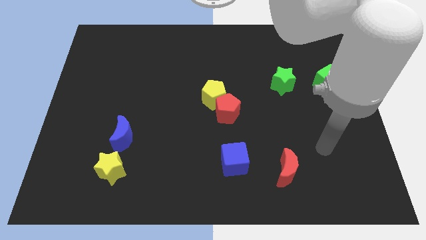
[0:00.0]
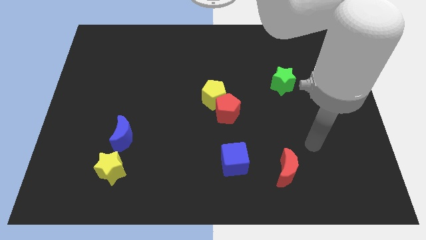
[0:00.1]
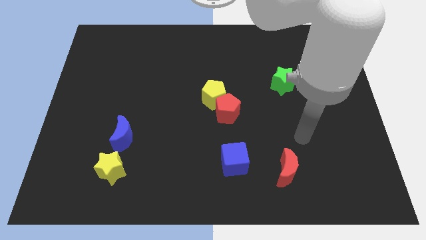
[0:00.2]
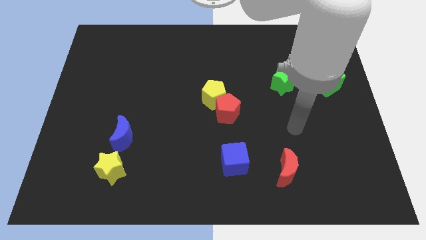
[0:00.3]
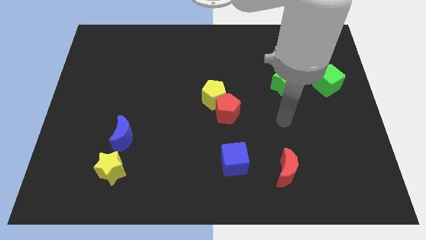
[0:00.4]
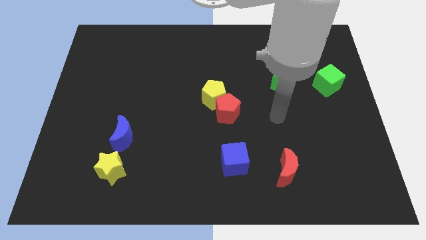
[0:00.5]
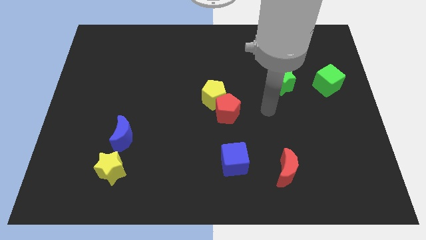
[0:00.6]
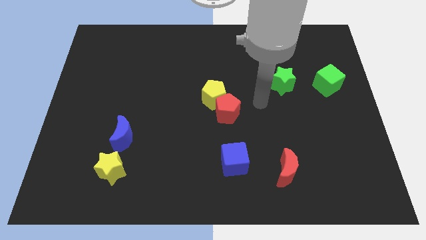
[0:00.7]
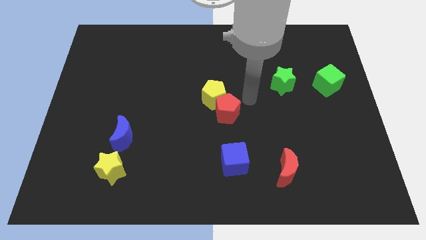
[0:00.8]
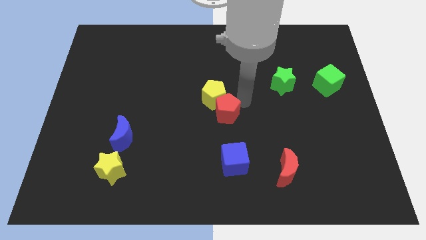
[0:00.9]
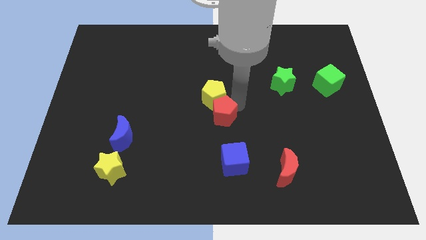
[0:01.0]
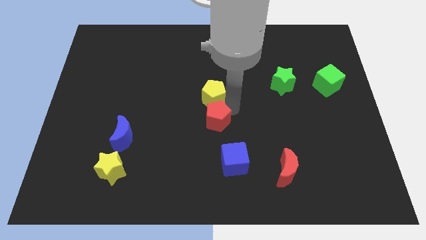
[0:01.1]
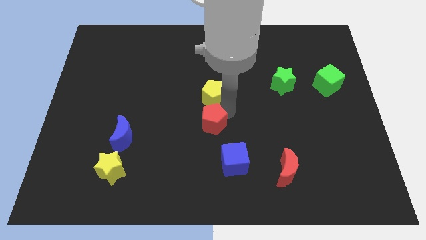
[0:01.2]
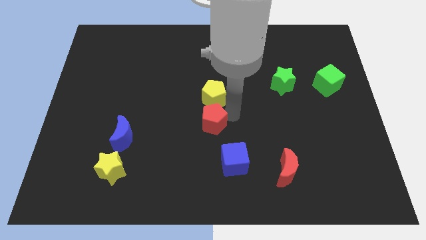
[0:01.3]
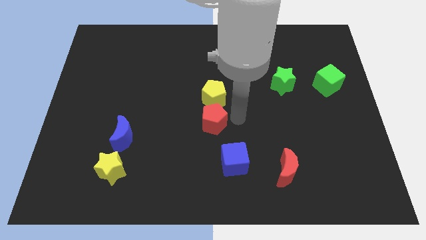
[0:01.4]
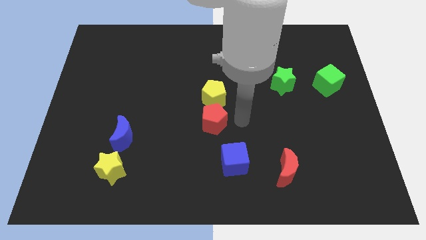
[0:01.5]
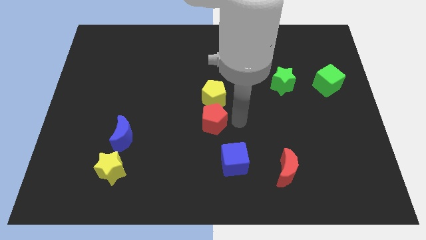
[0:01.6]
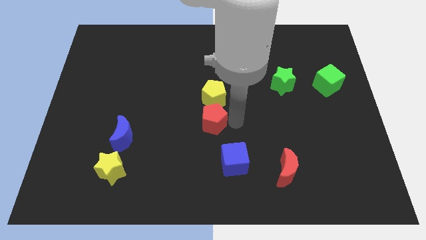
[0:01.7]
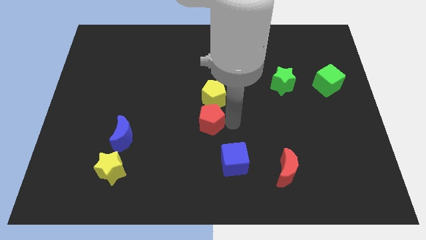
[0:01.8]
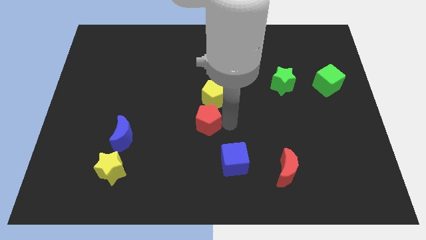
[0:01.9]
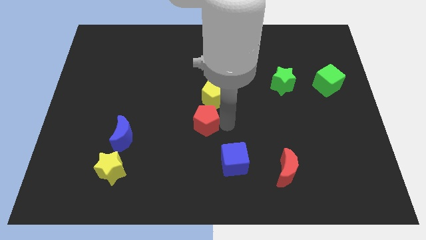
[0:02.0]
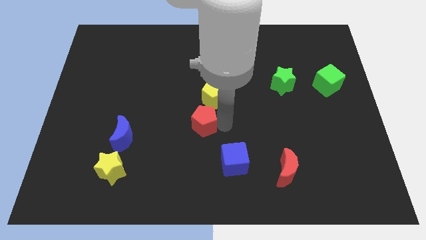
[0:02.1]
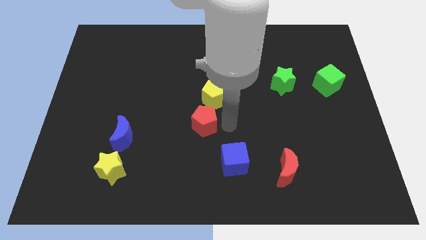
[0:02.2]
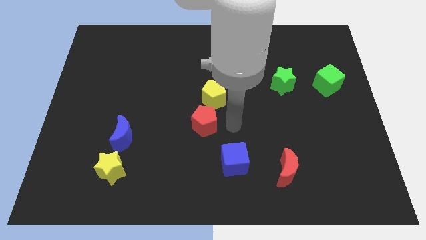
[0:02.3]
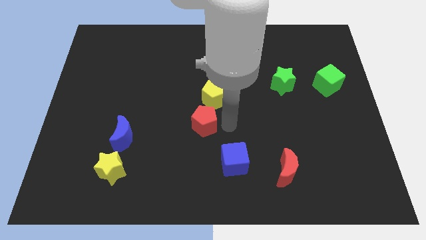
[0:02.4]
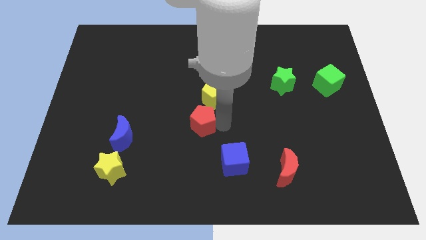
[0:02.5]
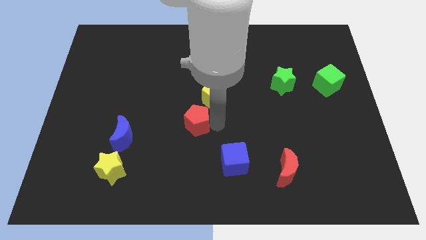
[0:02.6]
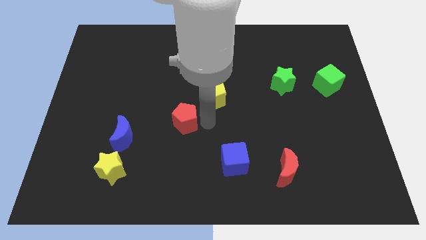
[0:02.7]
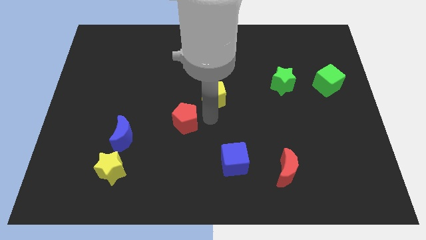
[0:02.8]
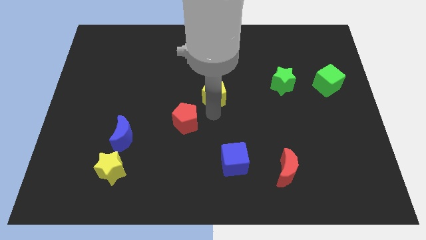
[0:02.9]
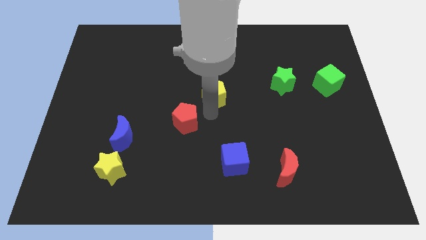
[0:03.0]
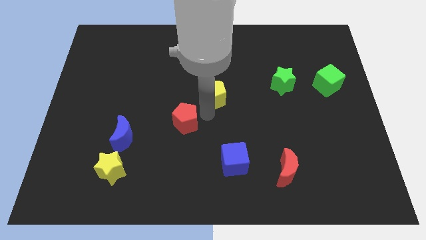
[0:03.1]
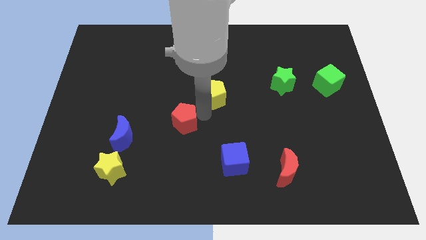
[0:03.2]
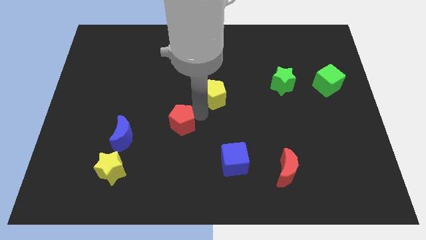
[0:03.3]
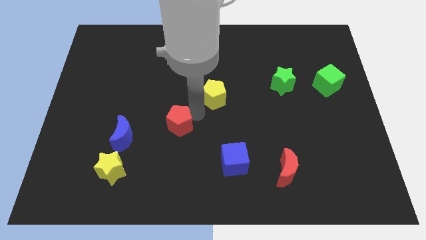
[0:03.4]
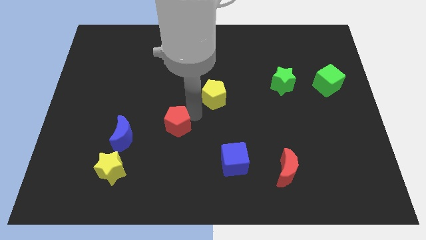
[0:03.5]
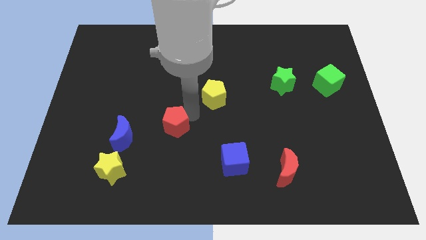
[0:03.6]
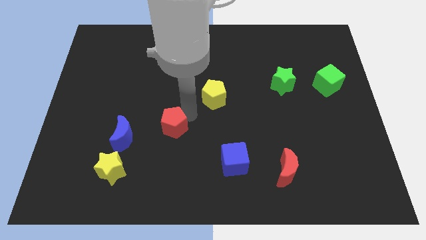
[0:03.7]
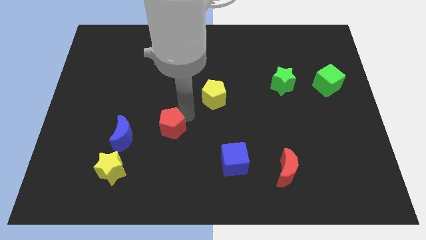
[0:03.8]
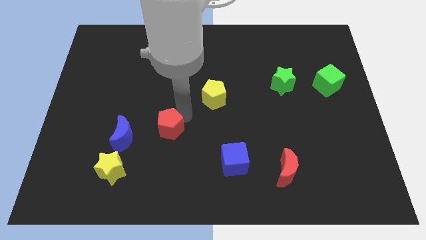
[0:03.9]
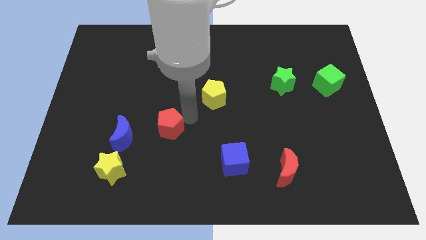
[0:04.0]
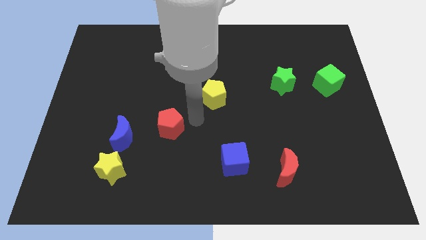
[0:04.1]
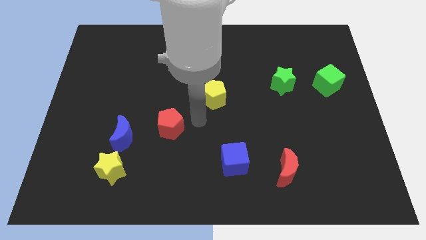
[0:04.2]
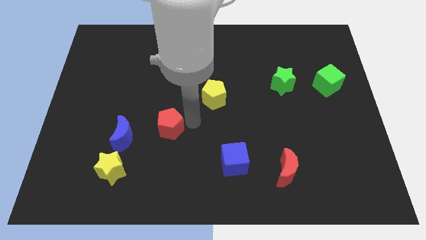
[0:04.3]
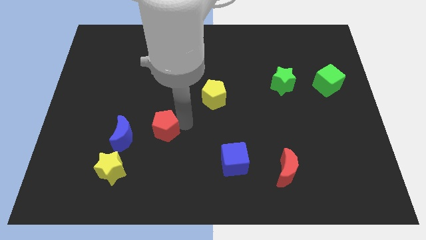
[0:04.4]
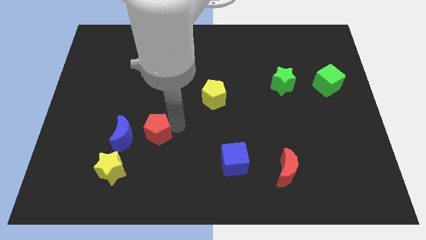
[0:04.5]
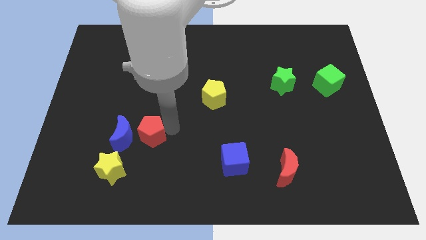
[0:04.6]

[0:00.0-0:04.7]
slide the red pentagon towards the blue moon

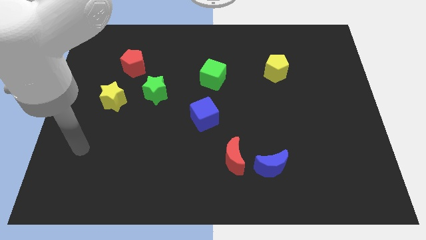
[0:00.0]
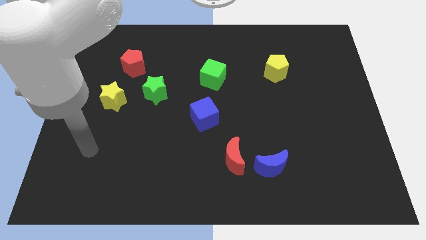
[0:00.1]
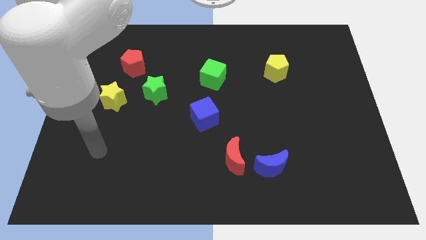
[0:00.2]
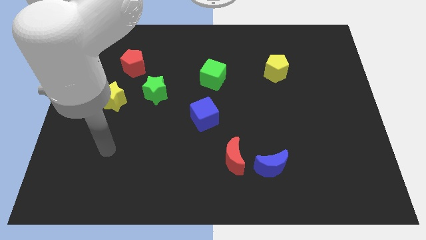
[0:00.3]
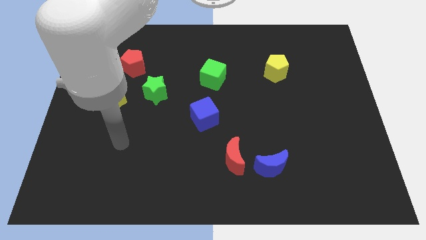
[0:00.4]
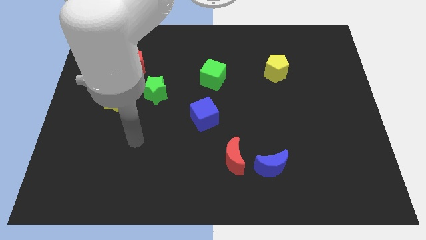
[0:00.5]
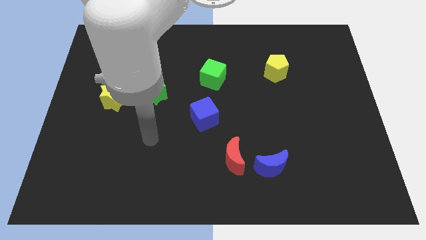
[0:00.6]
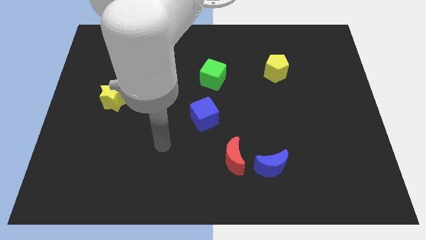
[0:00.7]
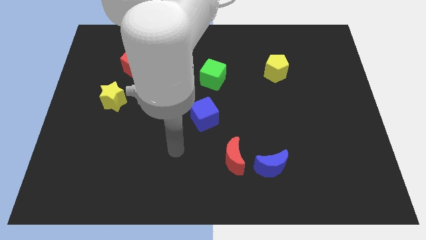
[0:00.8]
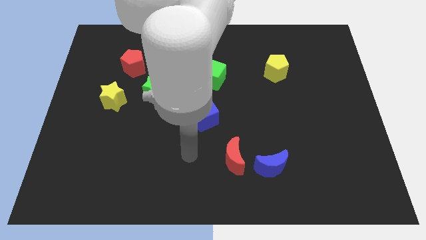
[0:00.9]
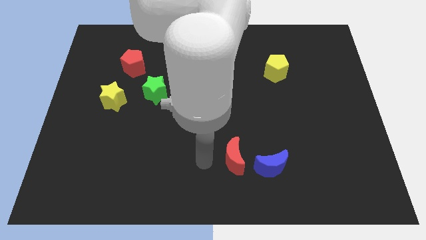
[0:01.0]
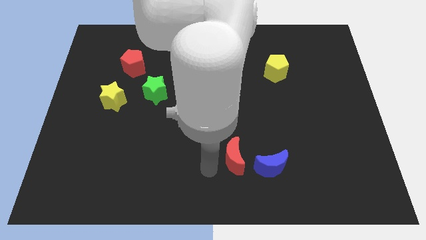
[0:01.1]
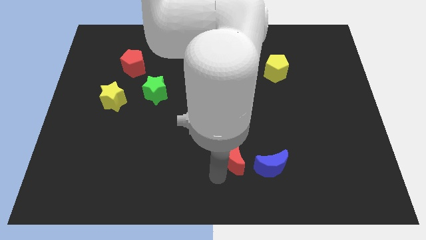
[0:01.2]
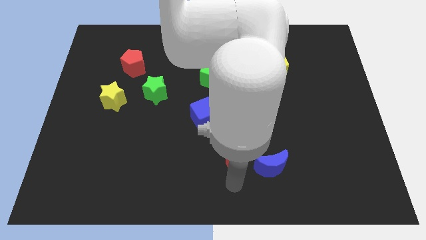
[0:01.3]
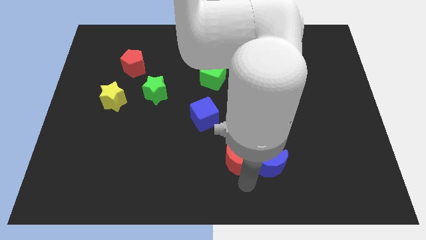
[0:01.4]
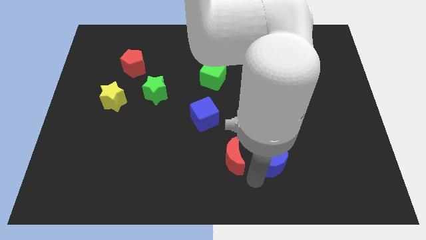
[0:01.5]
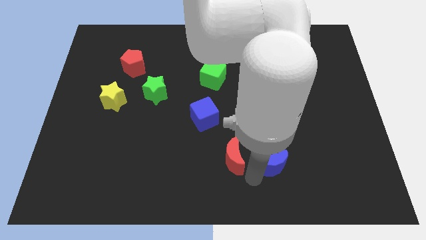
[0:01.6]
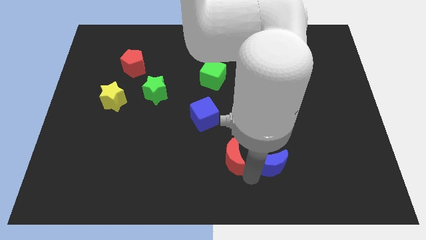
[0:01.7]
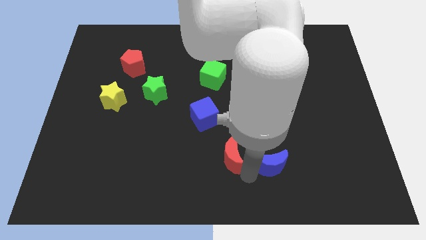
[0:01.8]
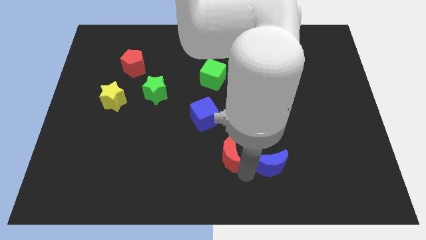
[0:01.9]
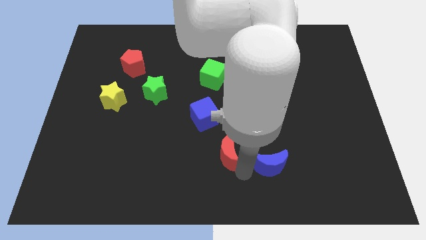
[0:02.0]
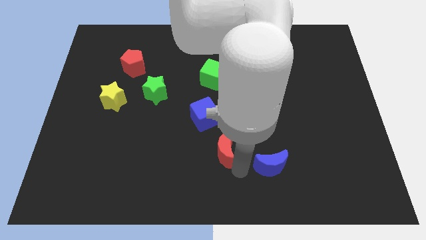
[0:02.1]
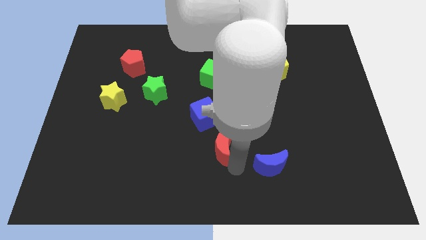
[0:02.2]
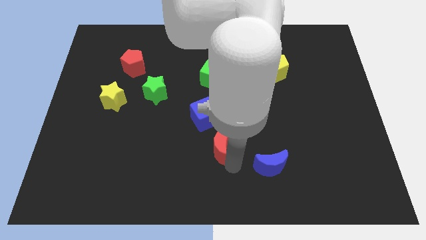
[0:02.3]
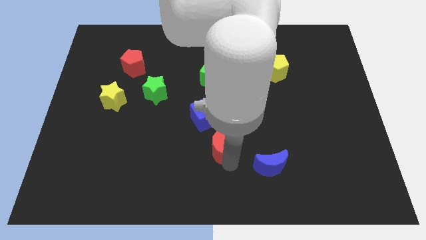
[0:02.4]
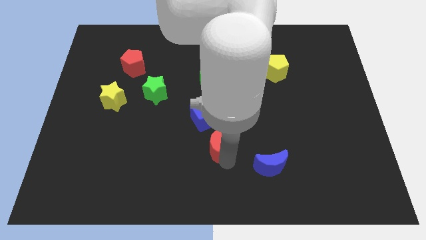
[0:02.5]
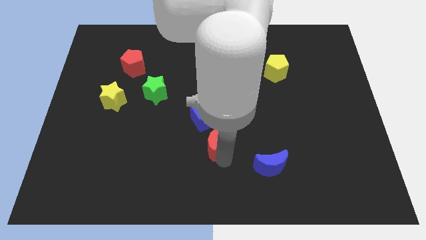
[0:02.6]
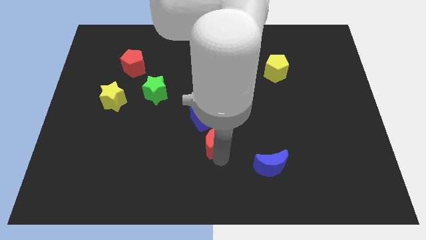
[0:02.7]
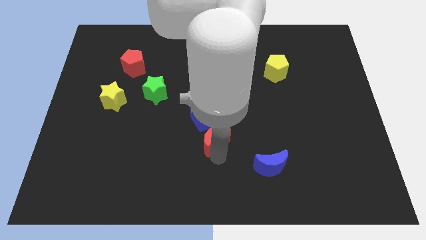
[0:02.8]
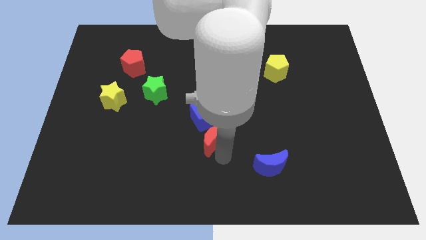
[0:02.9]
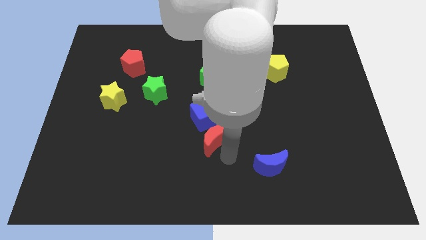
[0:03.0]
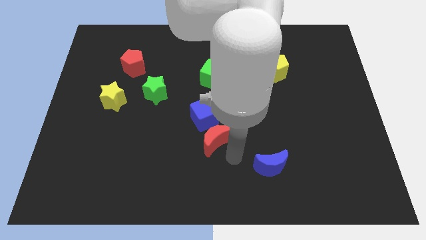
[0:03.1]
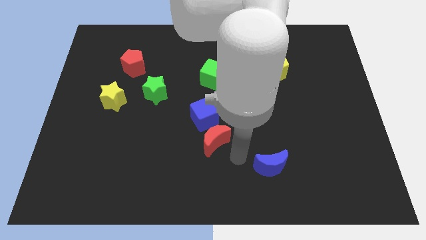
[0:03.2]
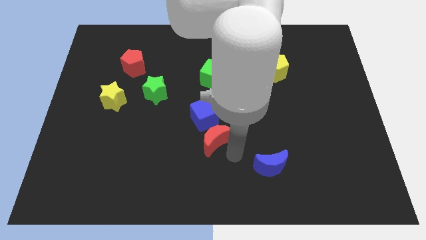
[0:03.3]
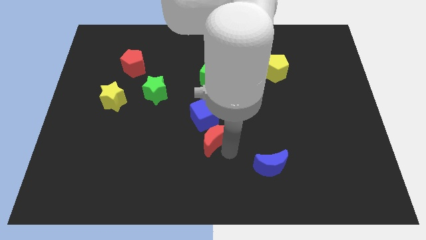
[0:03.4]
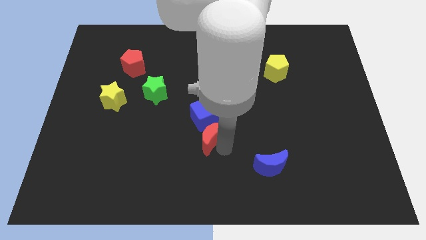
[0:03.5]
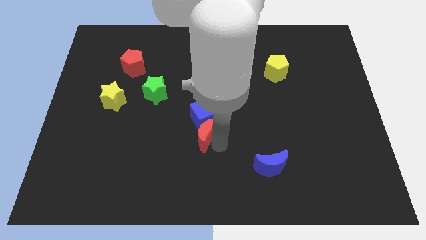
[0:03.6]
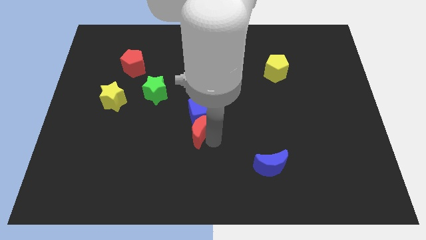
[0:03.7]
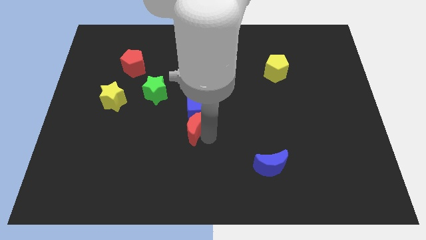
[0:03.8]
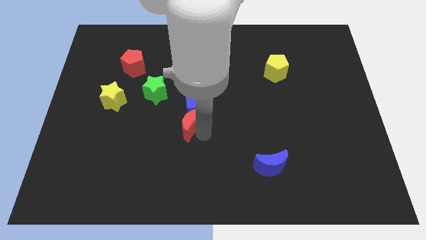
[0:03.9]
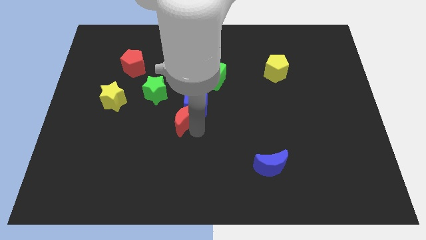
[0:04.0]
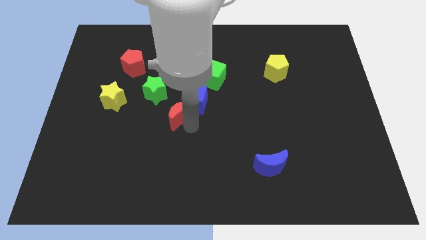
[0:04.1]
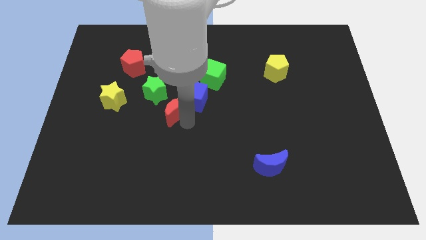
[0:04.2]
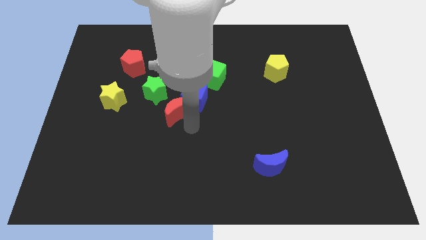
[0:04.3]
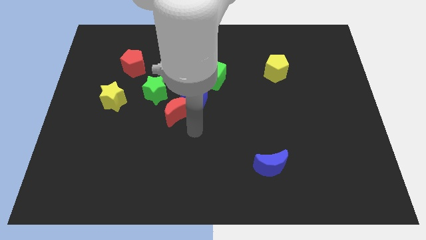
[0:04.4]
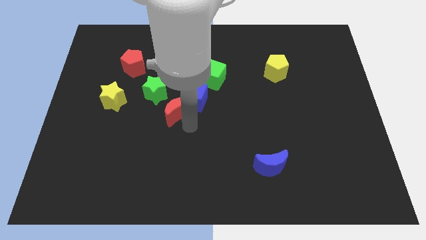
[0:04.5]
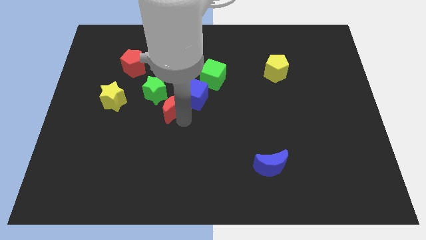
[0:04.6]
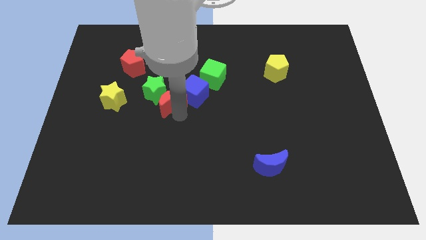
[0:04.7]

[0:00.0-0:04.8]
put the red moon close to the green star
